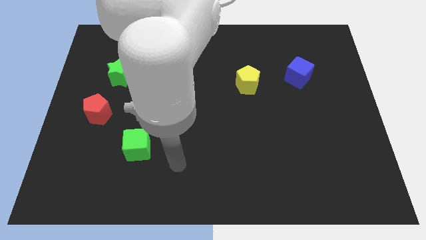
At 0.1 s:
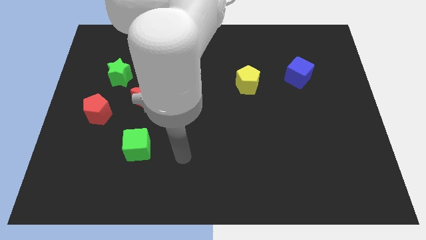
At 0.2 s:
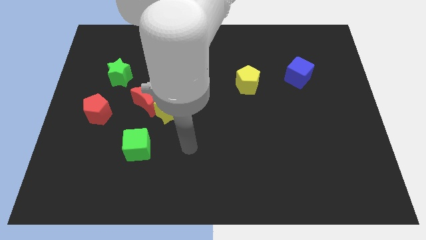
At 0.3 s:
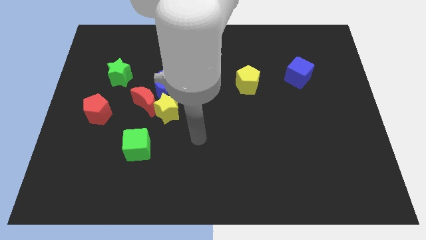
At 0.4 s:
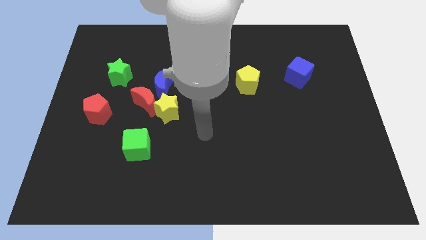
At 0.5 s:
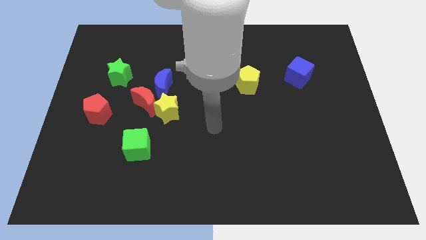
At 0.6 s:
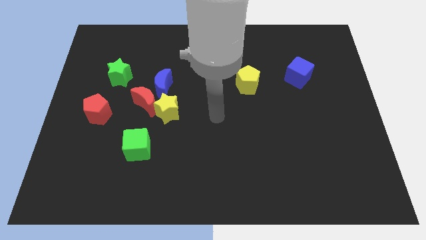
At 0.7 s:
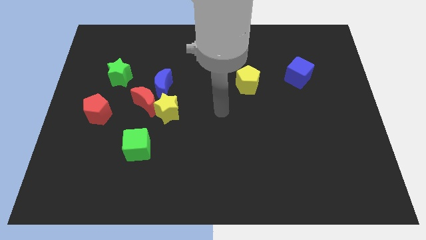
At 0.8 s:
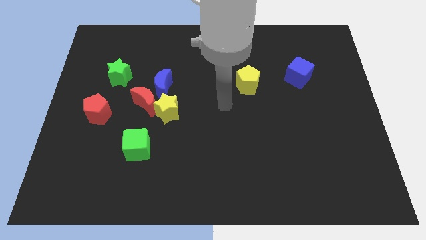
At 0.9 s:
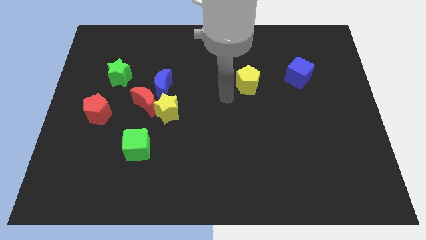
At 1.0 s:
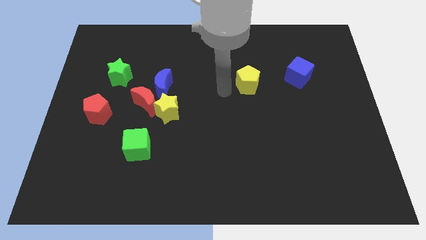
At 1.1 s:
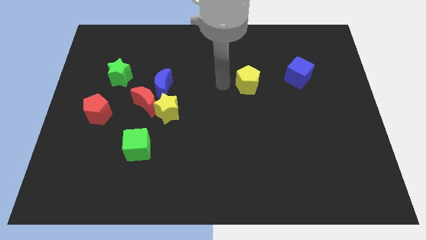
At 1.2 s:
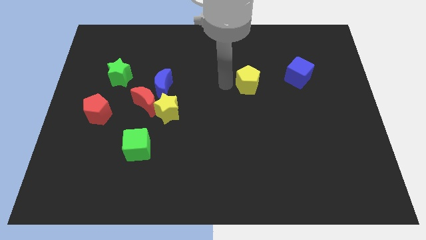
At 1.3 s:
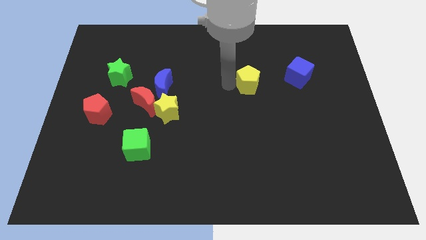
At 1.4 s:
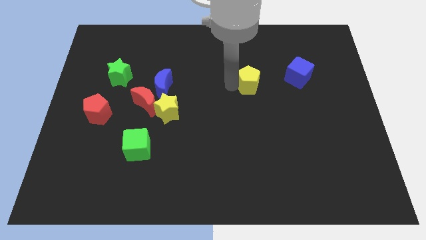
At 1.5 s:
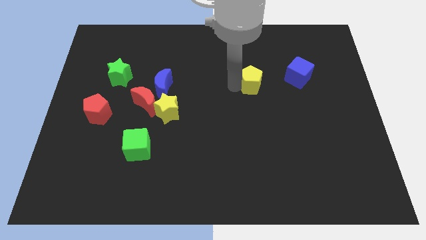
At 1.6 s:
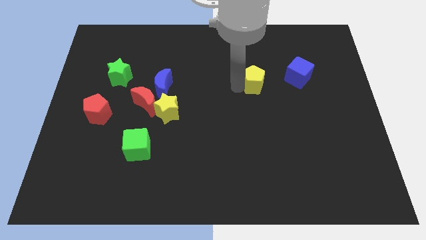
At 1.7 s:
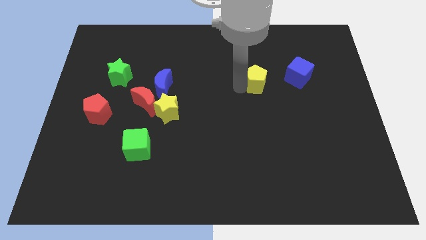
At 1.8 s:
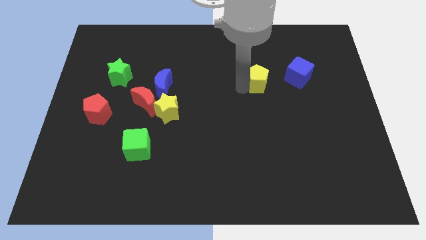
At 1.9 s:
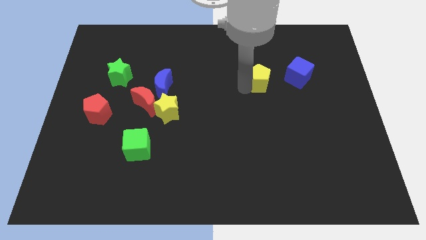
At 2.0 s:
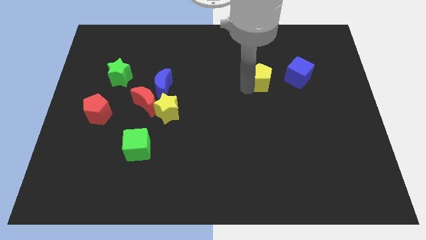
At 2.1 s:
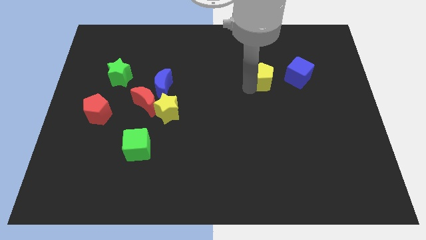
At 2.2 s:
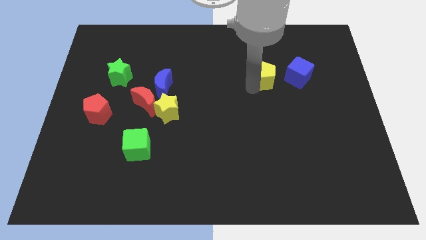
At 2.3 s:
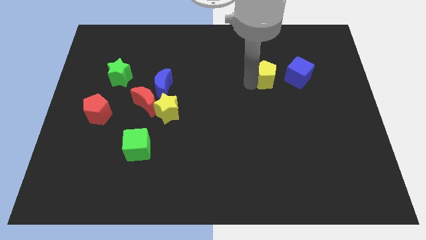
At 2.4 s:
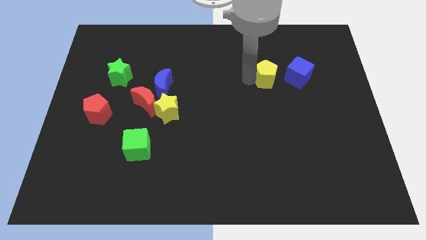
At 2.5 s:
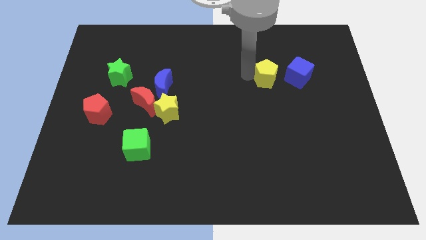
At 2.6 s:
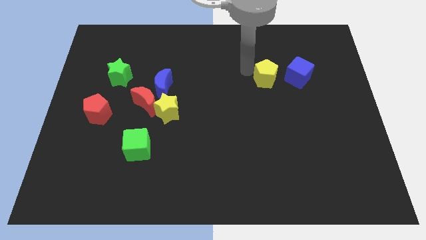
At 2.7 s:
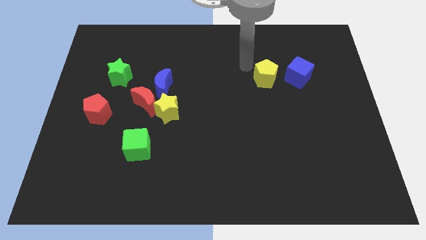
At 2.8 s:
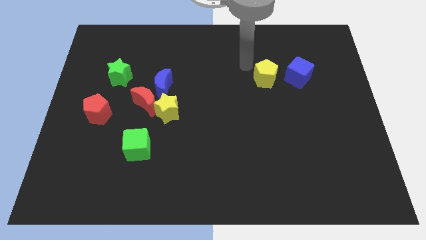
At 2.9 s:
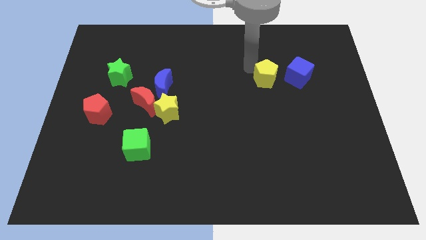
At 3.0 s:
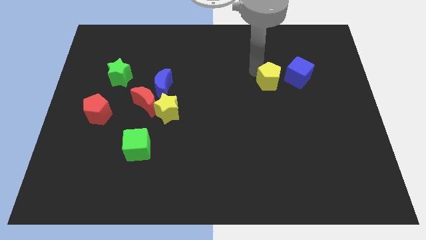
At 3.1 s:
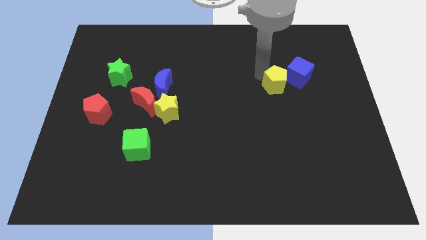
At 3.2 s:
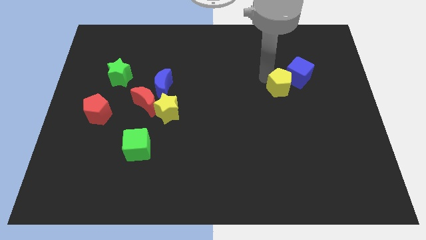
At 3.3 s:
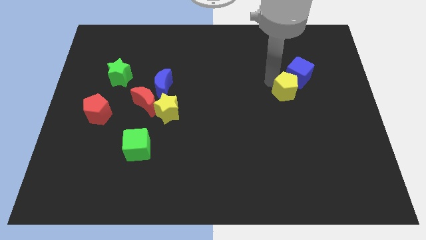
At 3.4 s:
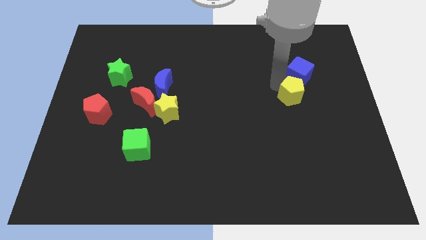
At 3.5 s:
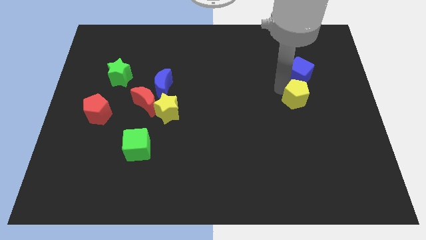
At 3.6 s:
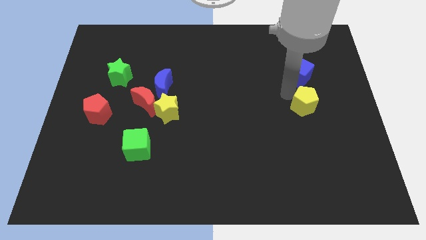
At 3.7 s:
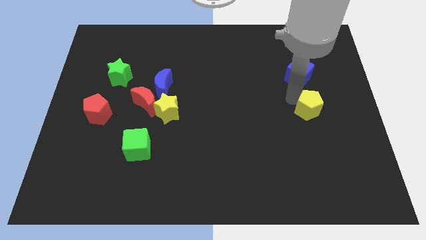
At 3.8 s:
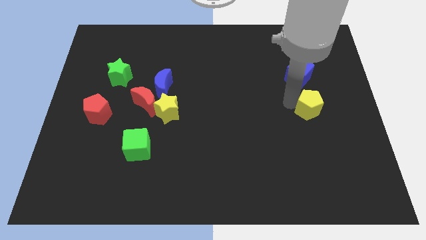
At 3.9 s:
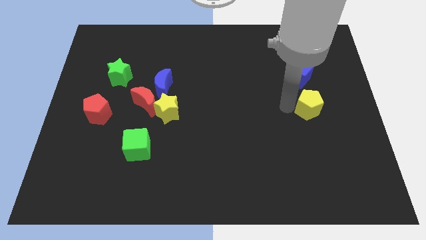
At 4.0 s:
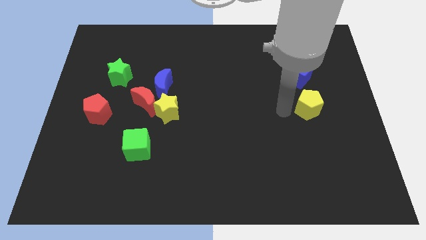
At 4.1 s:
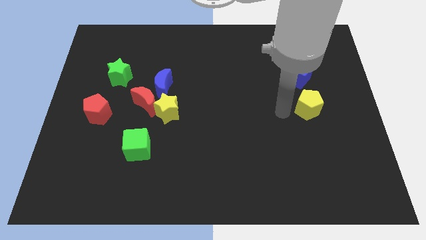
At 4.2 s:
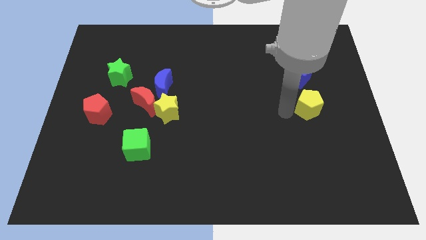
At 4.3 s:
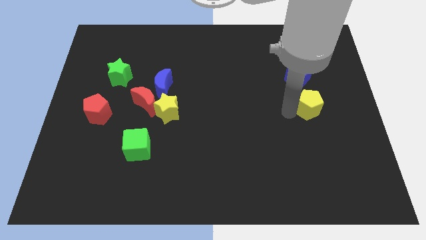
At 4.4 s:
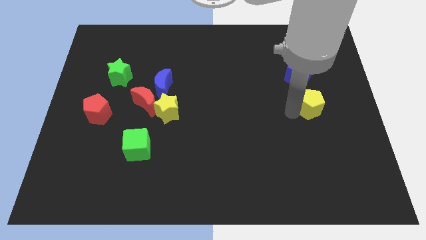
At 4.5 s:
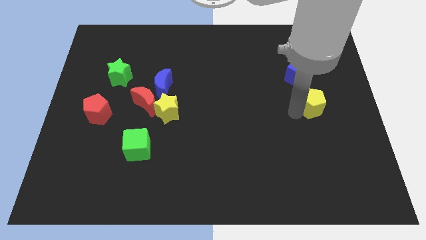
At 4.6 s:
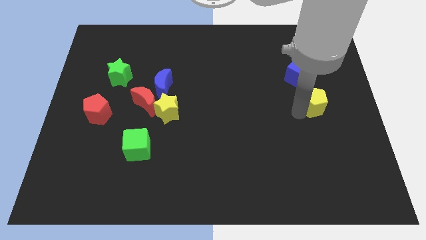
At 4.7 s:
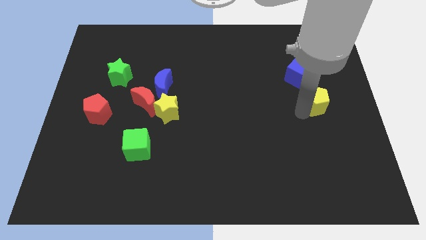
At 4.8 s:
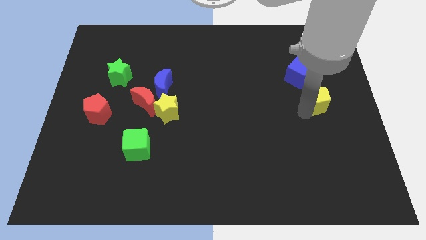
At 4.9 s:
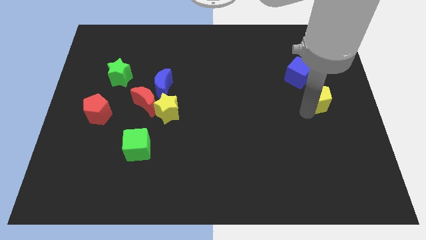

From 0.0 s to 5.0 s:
move the yellow pentagon to the center right

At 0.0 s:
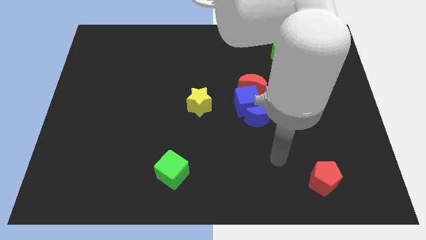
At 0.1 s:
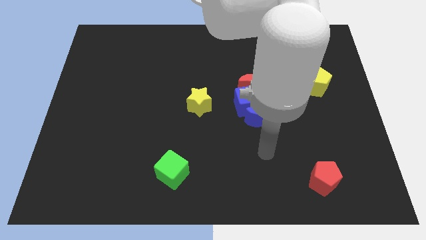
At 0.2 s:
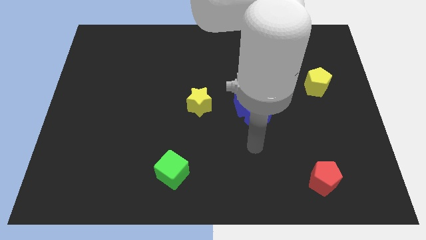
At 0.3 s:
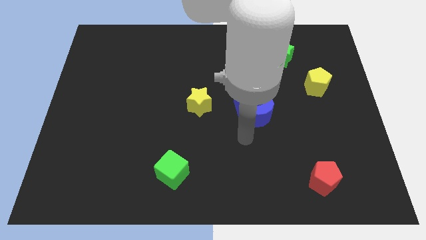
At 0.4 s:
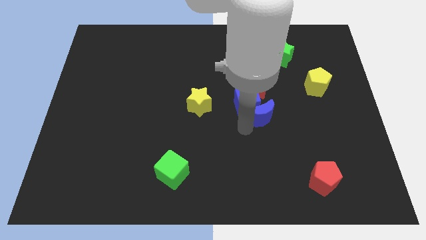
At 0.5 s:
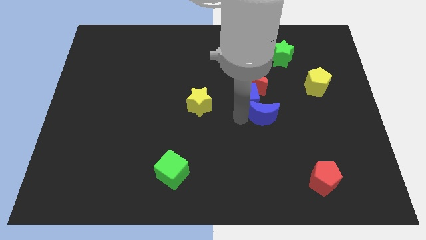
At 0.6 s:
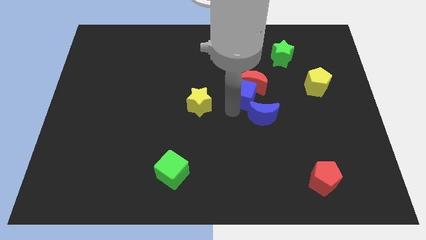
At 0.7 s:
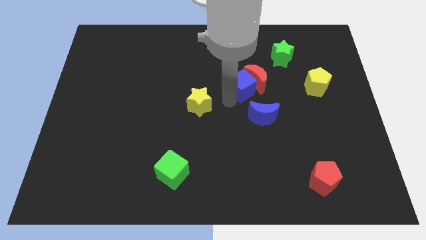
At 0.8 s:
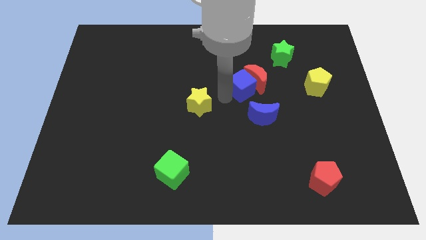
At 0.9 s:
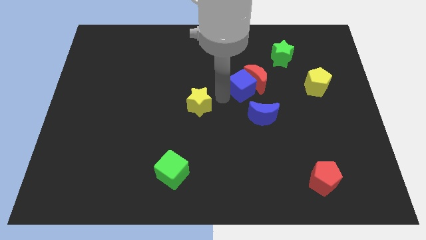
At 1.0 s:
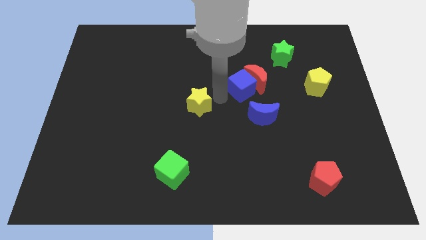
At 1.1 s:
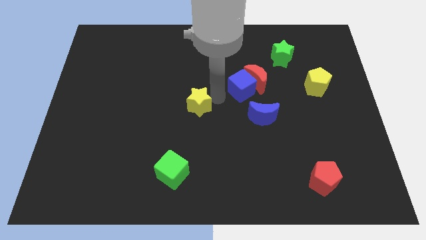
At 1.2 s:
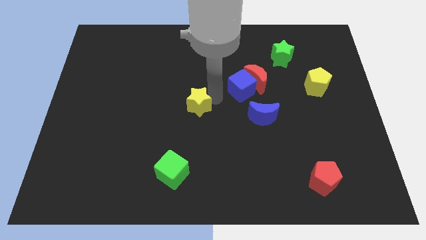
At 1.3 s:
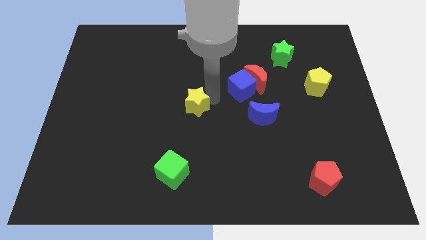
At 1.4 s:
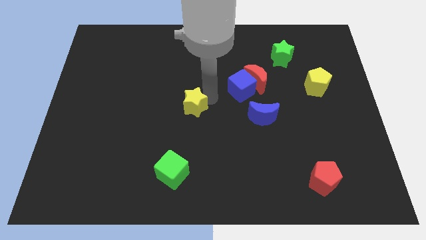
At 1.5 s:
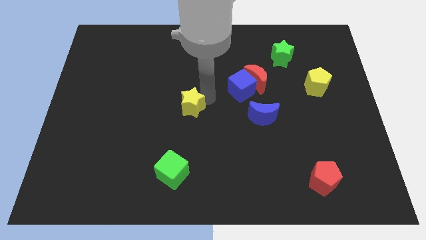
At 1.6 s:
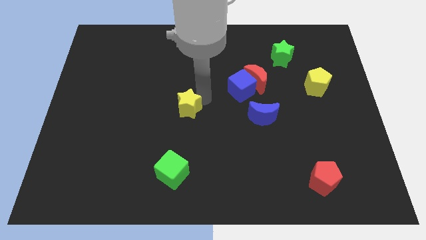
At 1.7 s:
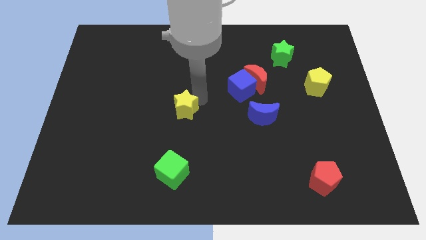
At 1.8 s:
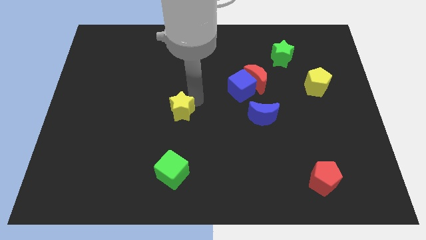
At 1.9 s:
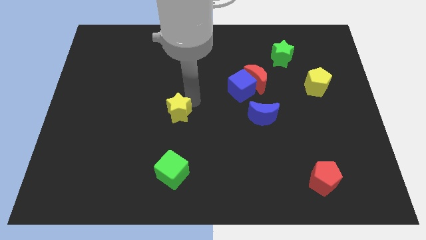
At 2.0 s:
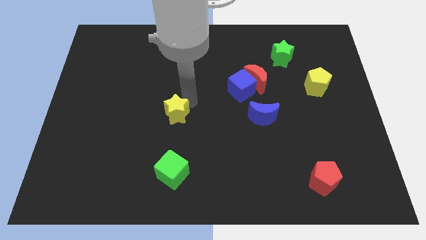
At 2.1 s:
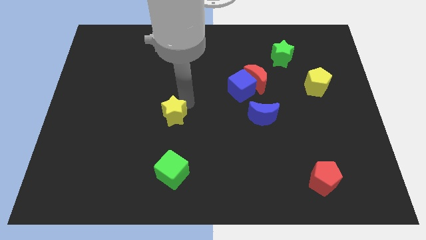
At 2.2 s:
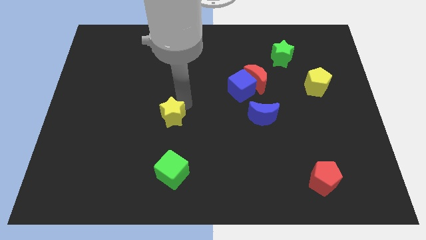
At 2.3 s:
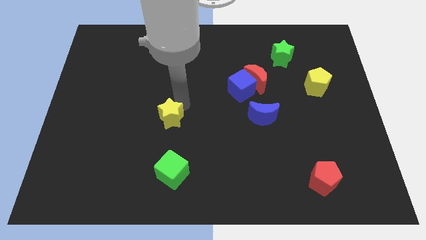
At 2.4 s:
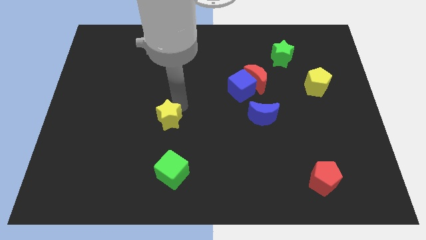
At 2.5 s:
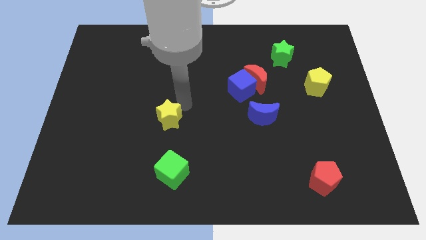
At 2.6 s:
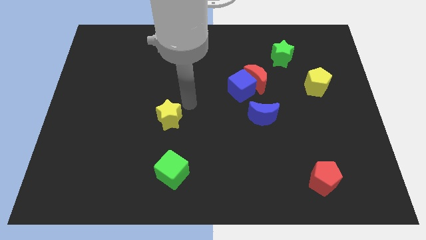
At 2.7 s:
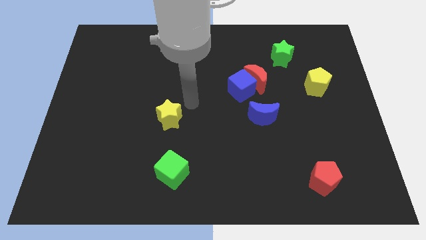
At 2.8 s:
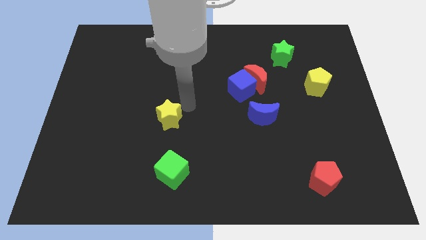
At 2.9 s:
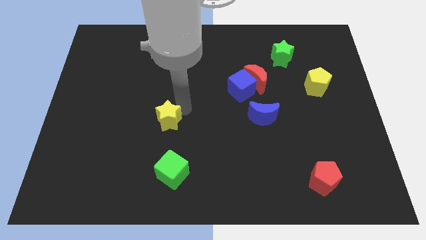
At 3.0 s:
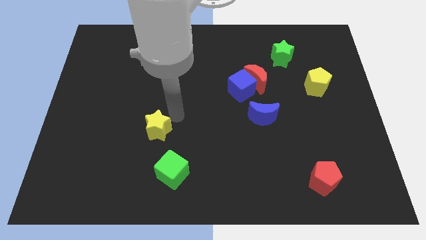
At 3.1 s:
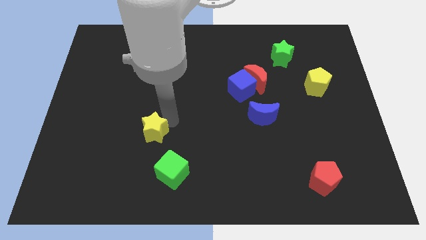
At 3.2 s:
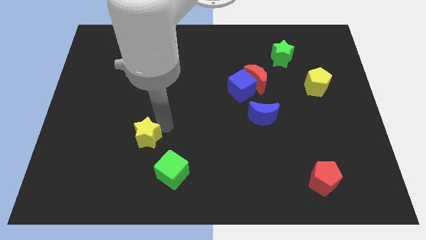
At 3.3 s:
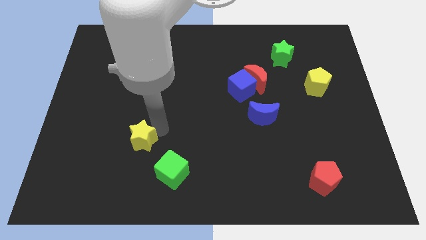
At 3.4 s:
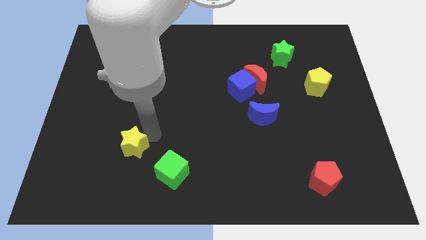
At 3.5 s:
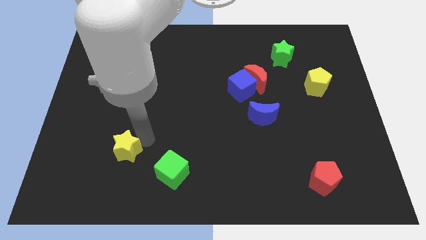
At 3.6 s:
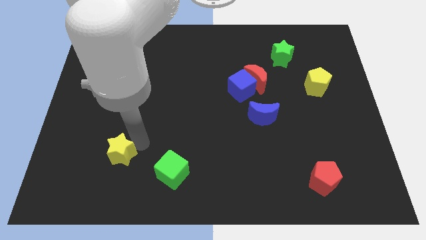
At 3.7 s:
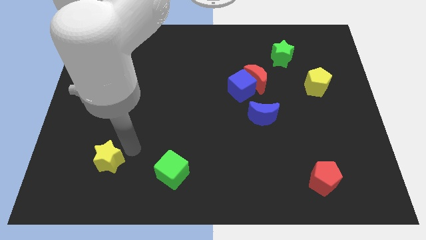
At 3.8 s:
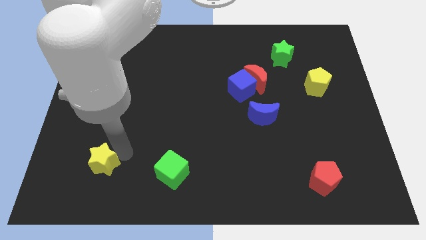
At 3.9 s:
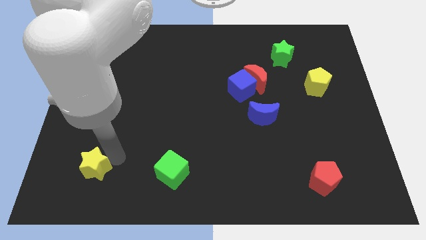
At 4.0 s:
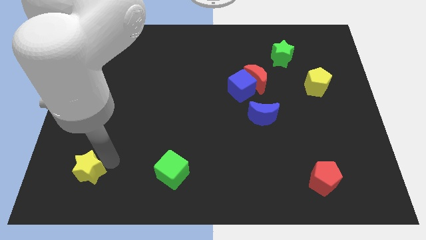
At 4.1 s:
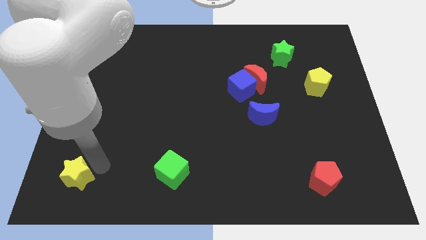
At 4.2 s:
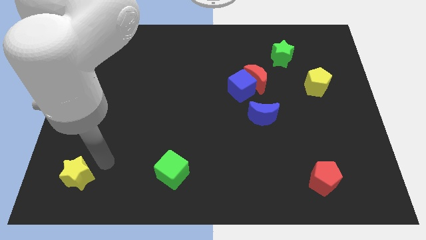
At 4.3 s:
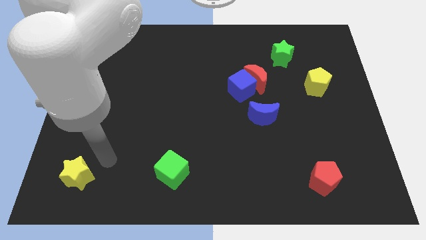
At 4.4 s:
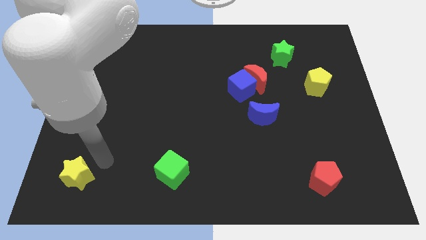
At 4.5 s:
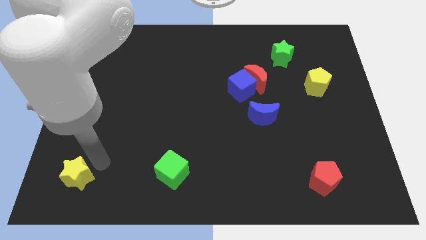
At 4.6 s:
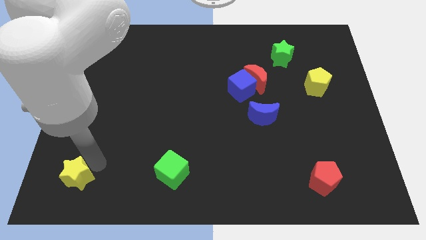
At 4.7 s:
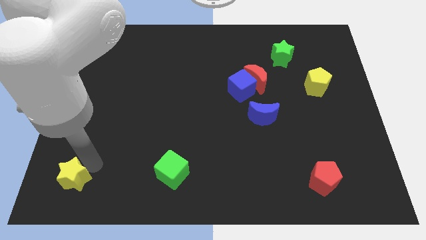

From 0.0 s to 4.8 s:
push the yellow star to the lower left corner
